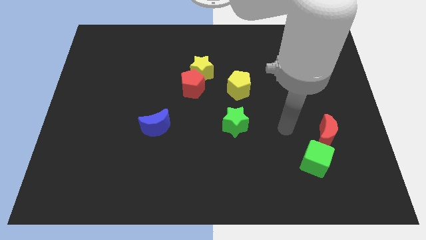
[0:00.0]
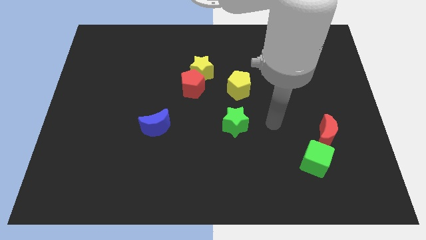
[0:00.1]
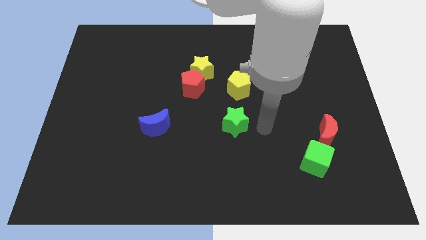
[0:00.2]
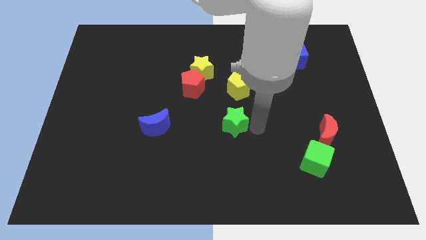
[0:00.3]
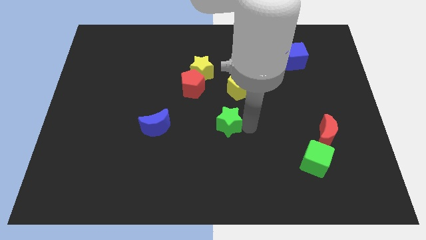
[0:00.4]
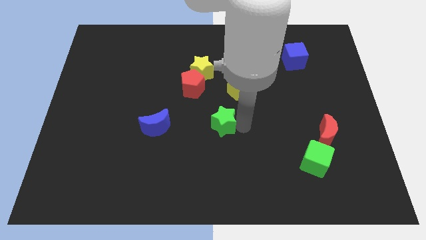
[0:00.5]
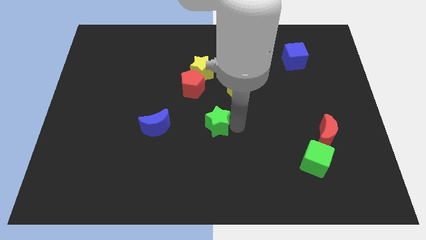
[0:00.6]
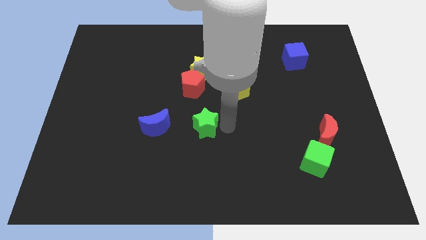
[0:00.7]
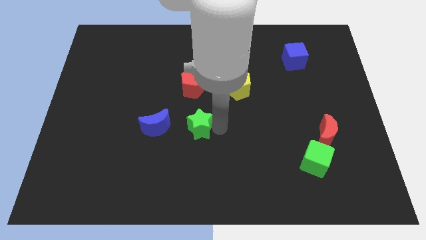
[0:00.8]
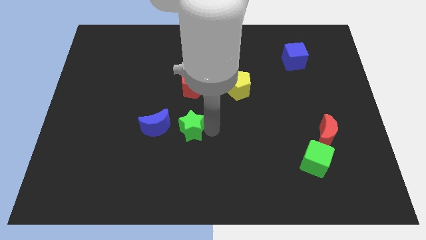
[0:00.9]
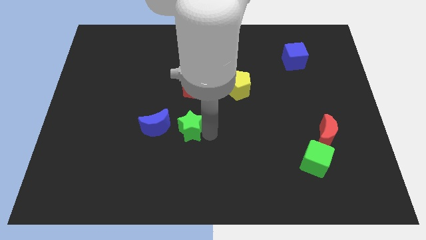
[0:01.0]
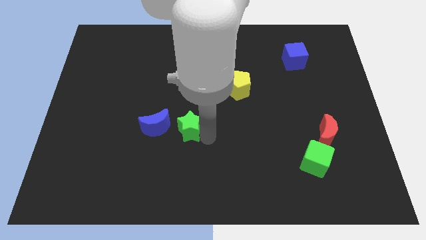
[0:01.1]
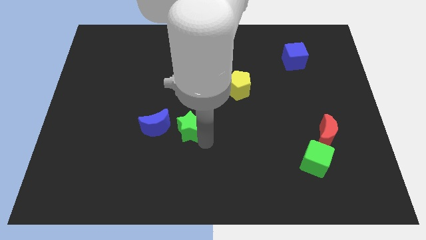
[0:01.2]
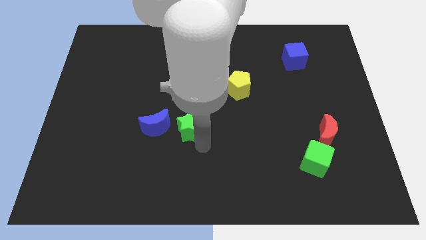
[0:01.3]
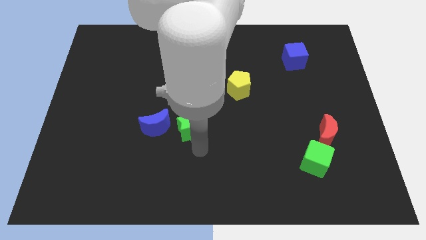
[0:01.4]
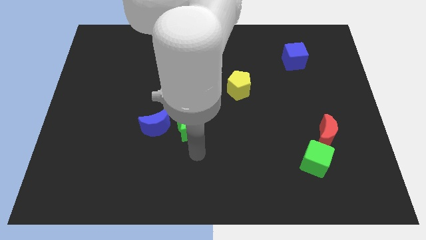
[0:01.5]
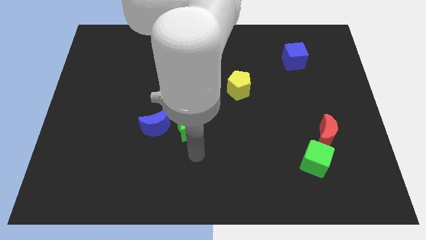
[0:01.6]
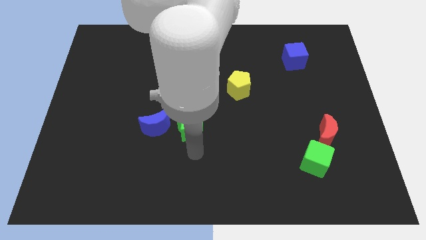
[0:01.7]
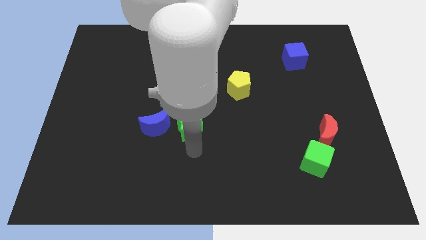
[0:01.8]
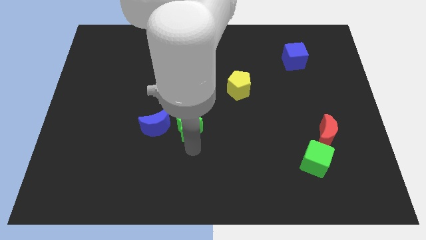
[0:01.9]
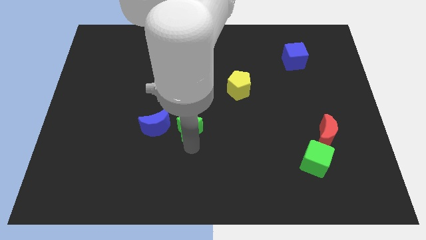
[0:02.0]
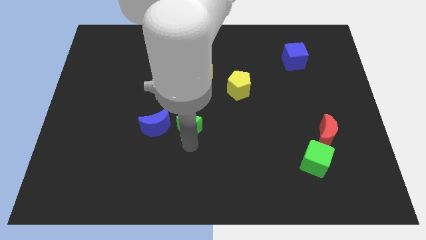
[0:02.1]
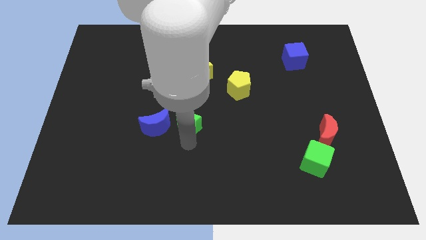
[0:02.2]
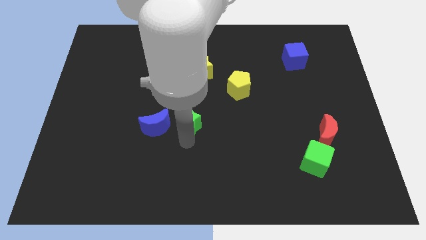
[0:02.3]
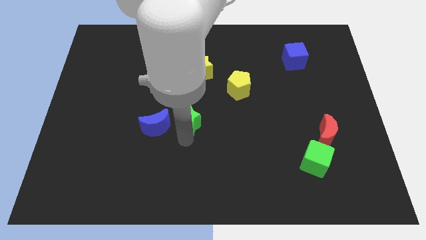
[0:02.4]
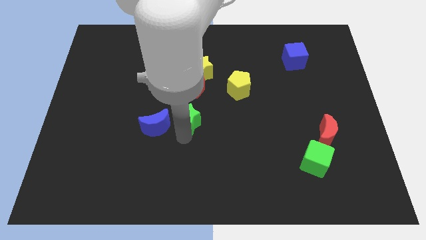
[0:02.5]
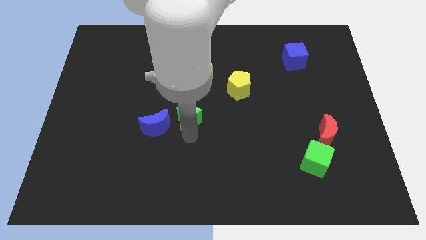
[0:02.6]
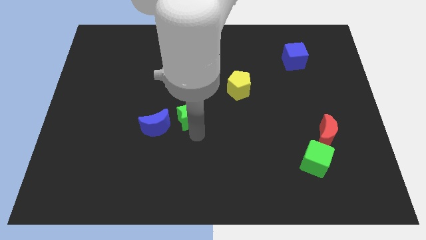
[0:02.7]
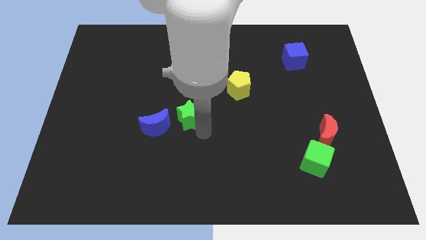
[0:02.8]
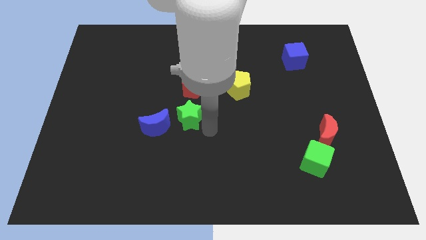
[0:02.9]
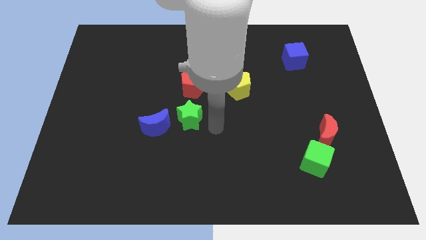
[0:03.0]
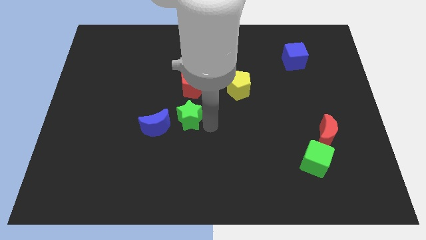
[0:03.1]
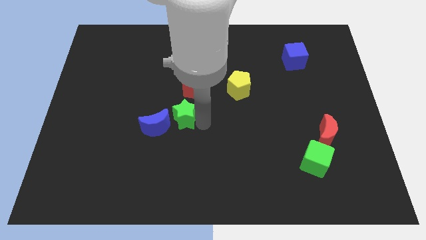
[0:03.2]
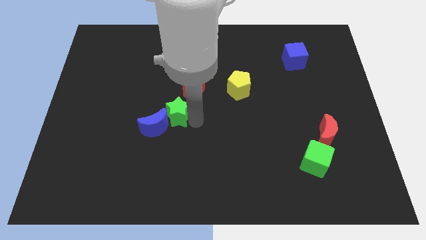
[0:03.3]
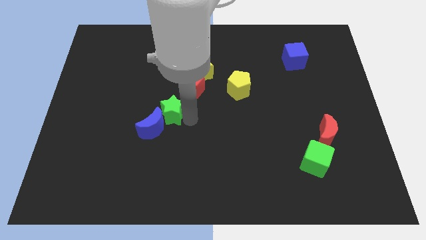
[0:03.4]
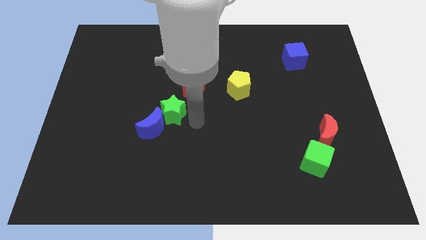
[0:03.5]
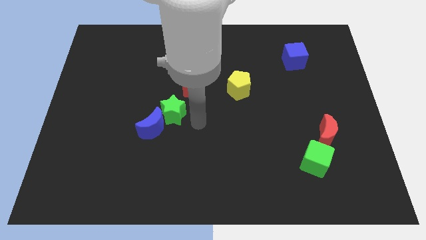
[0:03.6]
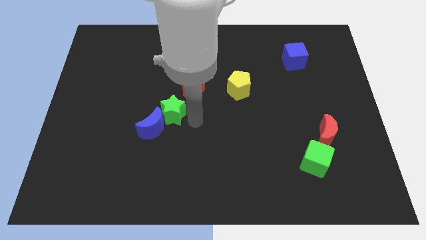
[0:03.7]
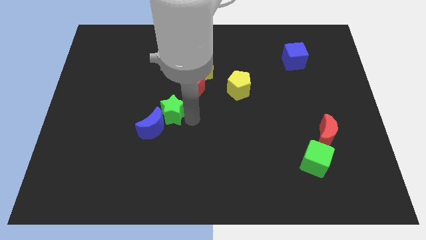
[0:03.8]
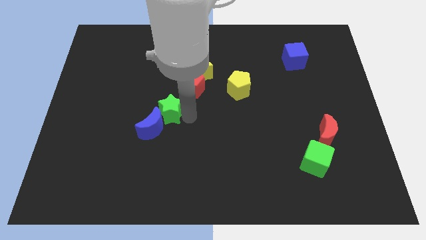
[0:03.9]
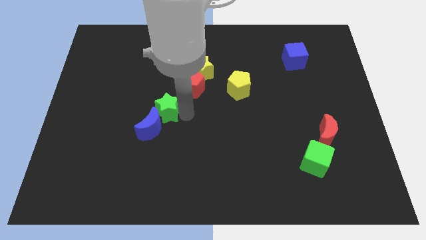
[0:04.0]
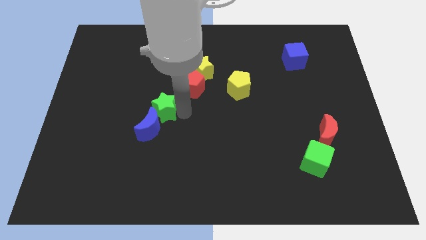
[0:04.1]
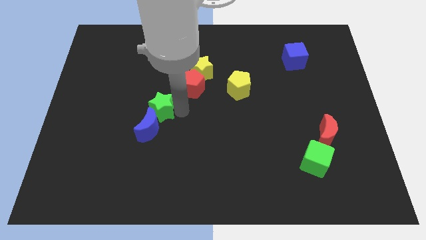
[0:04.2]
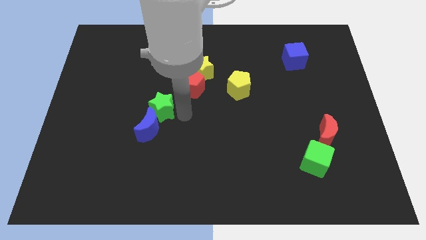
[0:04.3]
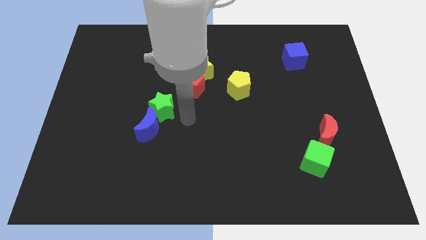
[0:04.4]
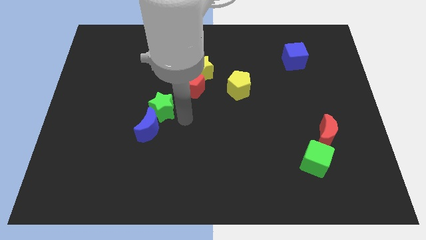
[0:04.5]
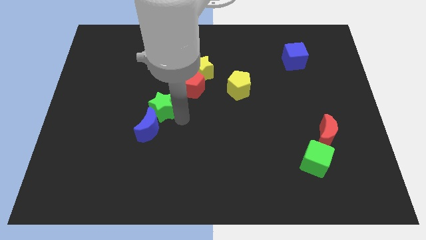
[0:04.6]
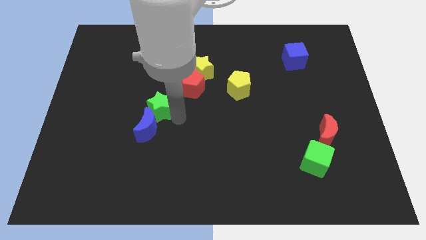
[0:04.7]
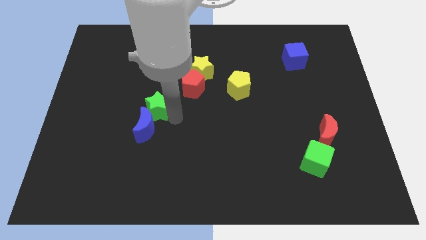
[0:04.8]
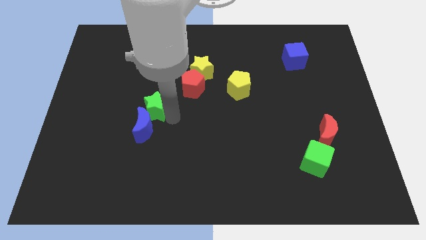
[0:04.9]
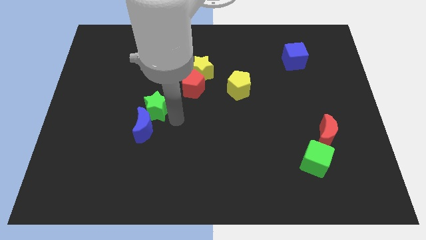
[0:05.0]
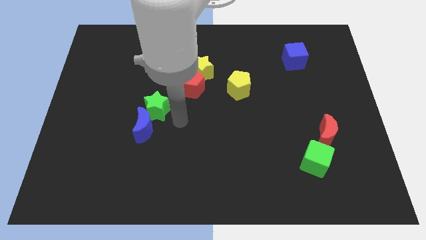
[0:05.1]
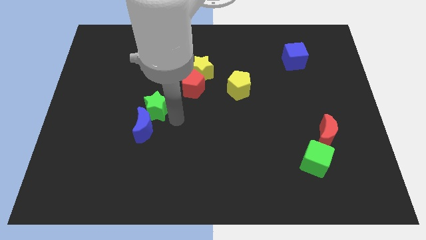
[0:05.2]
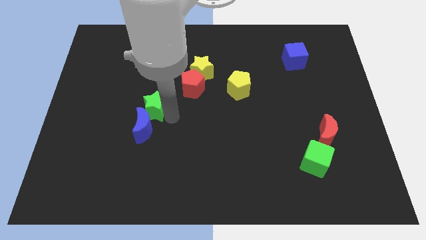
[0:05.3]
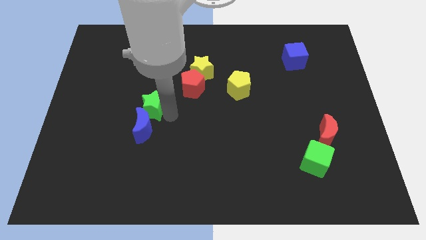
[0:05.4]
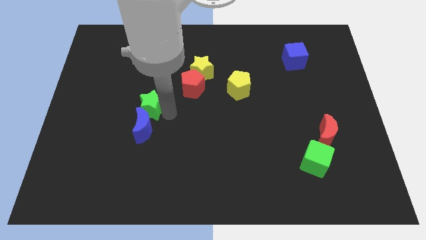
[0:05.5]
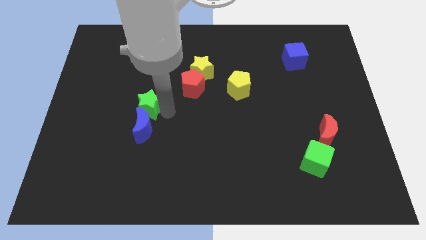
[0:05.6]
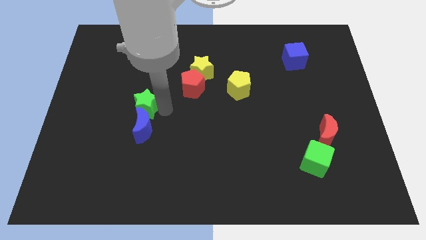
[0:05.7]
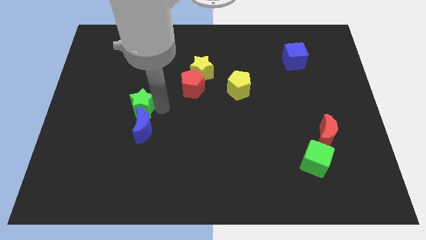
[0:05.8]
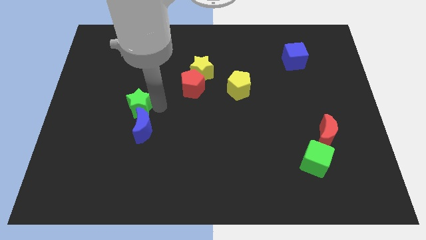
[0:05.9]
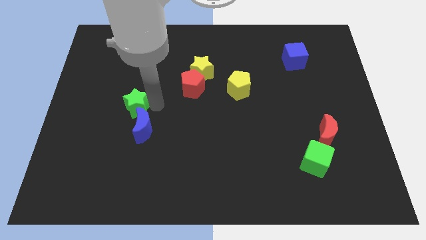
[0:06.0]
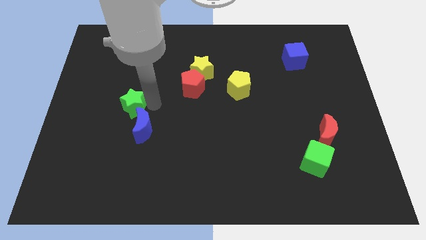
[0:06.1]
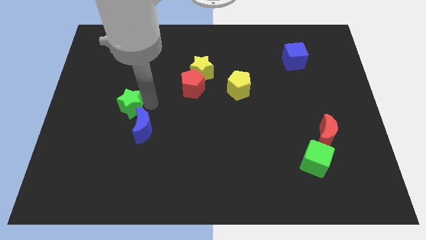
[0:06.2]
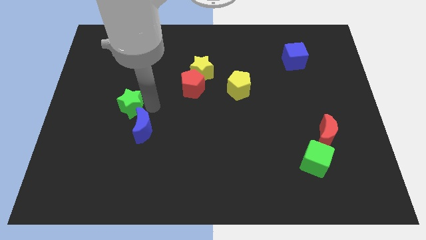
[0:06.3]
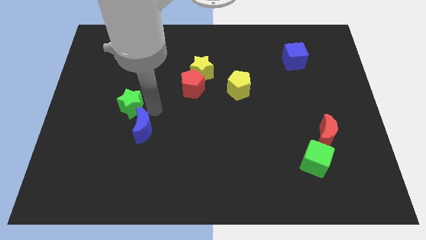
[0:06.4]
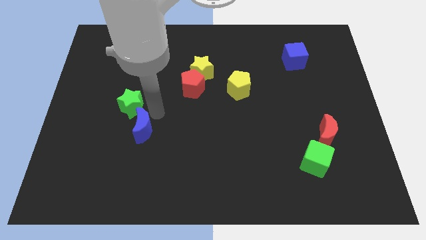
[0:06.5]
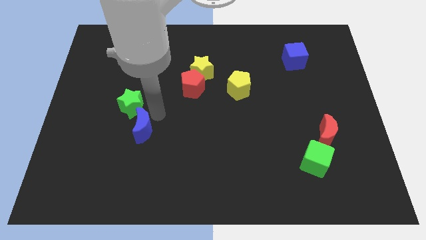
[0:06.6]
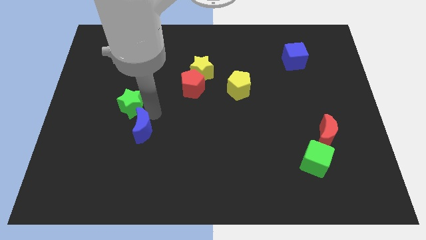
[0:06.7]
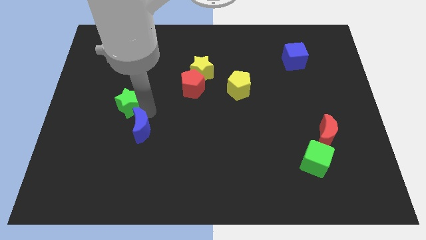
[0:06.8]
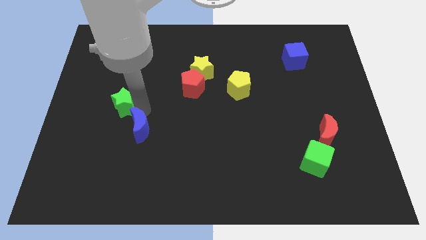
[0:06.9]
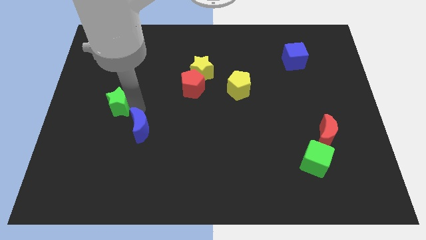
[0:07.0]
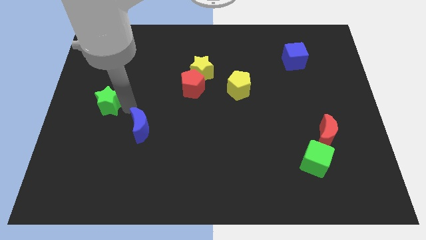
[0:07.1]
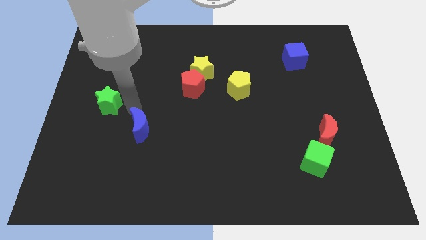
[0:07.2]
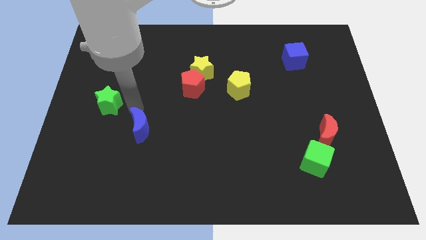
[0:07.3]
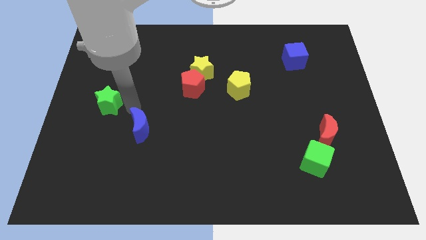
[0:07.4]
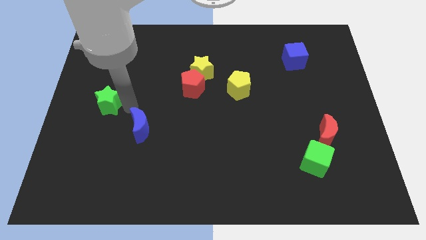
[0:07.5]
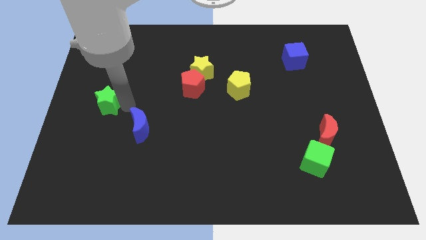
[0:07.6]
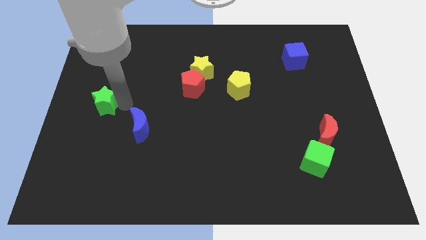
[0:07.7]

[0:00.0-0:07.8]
slide the green star to the left side
